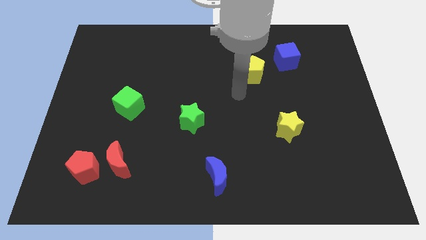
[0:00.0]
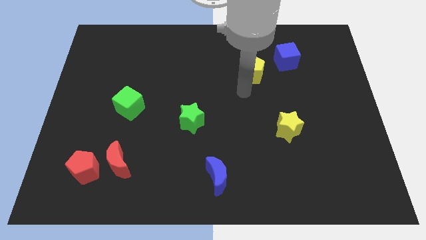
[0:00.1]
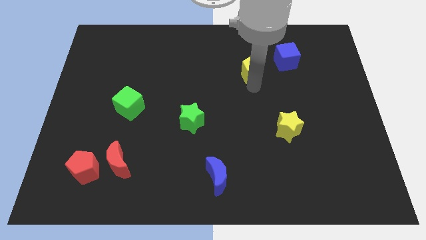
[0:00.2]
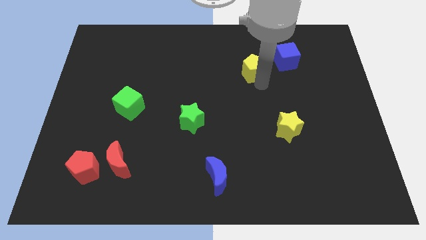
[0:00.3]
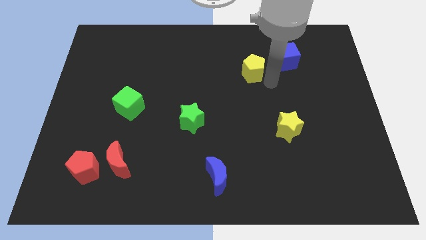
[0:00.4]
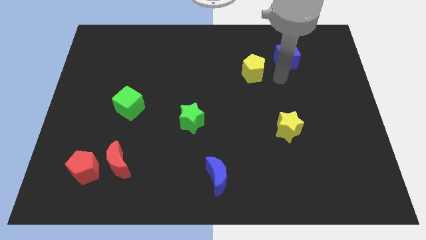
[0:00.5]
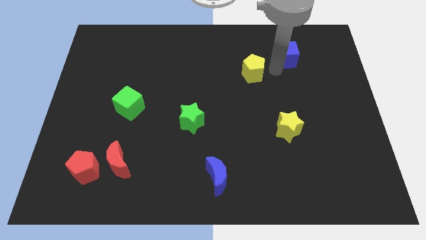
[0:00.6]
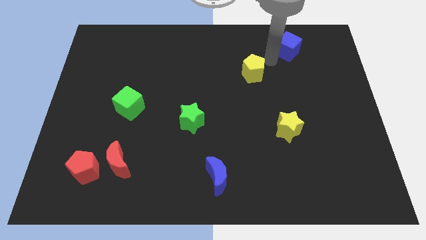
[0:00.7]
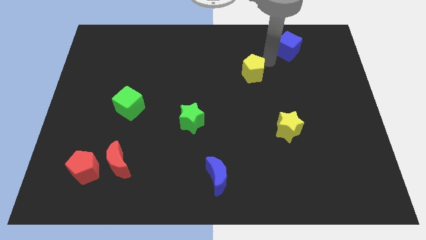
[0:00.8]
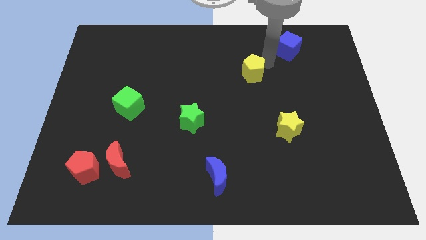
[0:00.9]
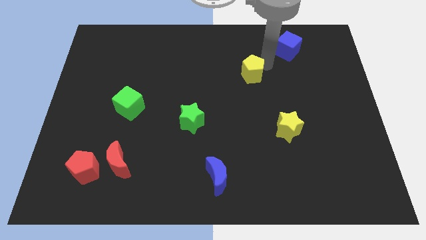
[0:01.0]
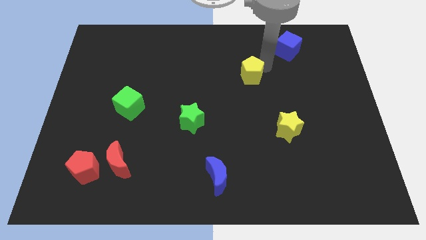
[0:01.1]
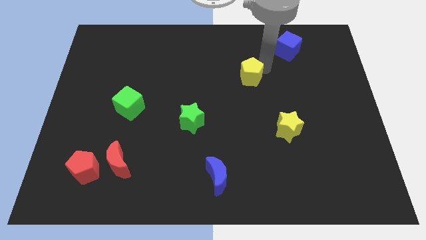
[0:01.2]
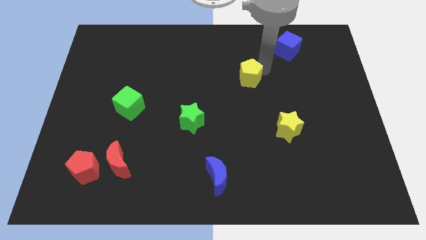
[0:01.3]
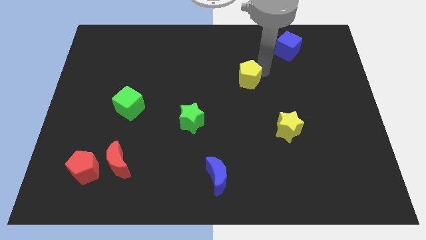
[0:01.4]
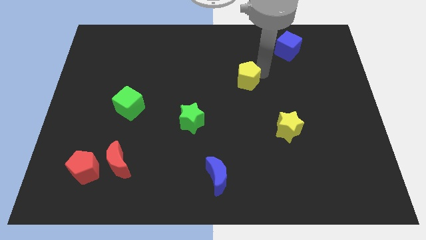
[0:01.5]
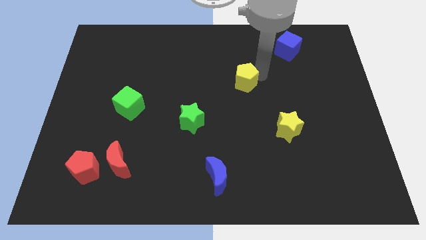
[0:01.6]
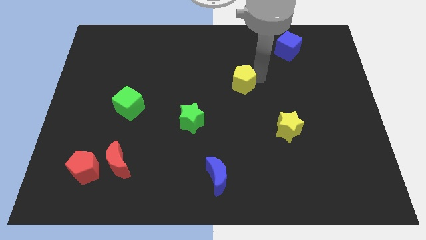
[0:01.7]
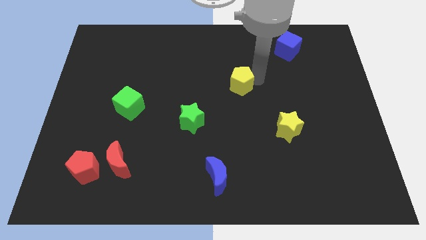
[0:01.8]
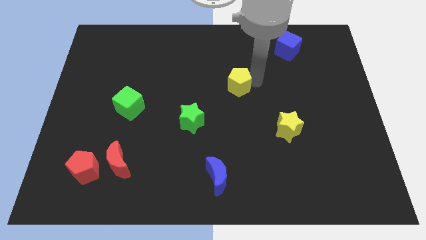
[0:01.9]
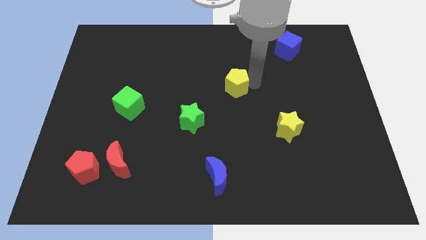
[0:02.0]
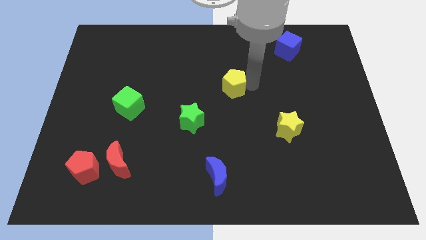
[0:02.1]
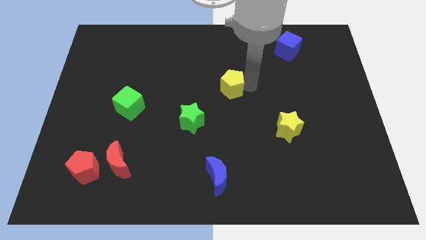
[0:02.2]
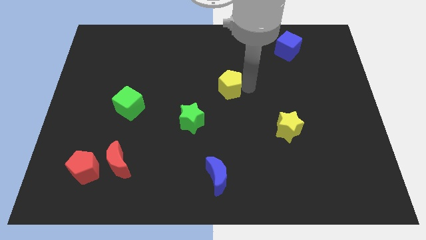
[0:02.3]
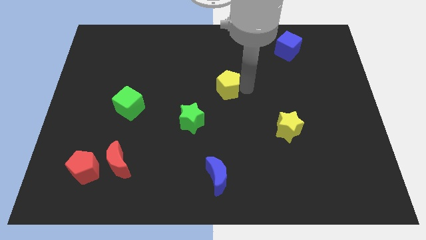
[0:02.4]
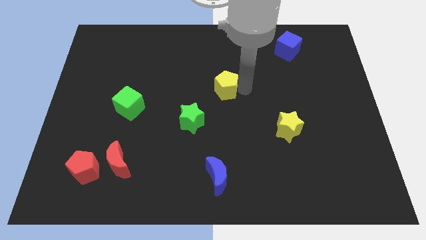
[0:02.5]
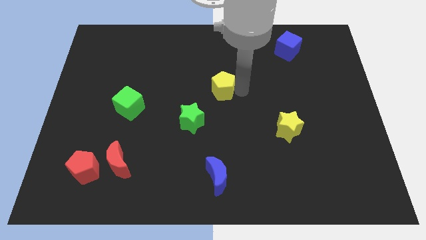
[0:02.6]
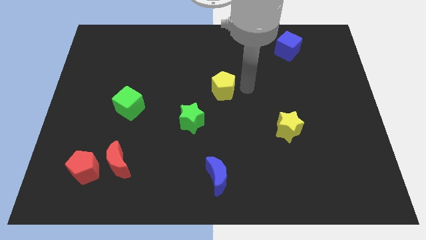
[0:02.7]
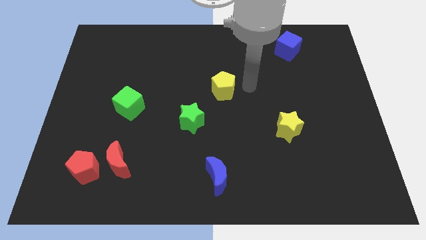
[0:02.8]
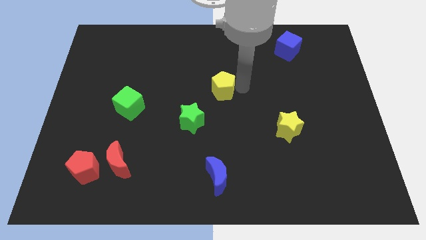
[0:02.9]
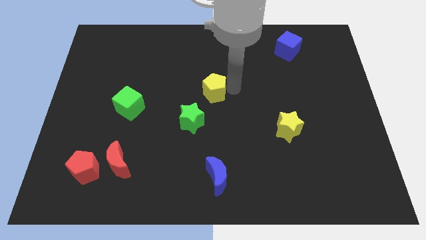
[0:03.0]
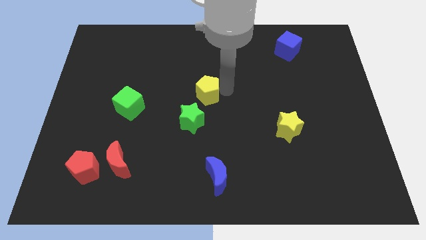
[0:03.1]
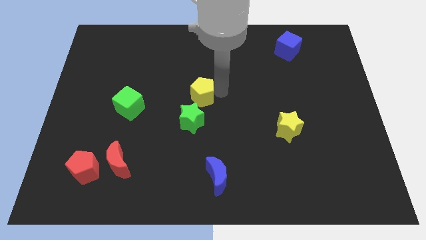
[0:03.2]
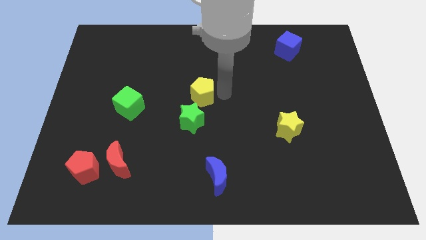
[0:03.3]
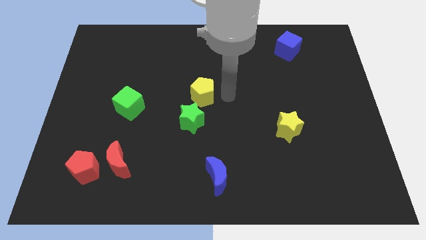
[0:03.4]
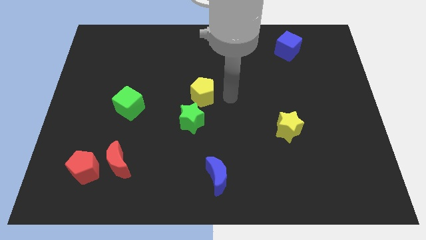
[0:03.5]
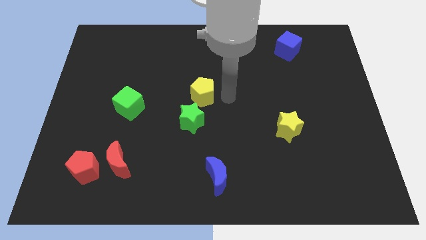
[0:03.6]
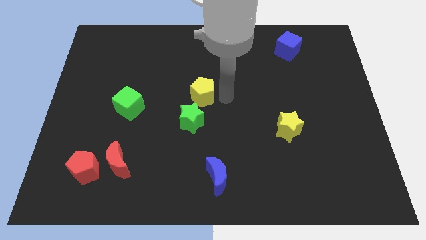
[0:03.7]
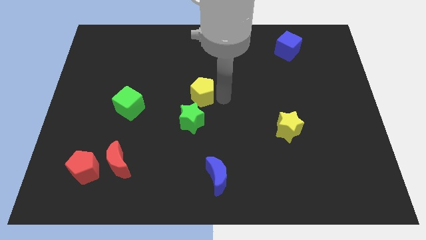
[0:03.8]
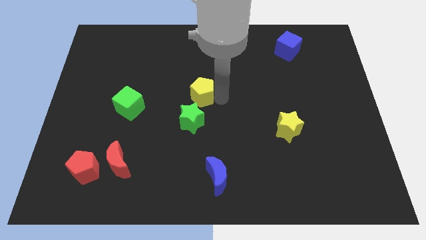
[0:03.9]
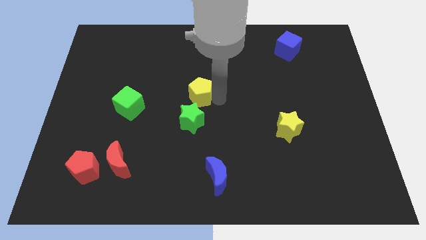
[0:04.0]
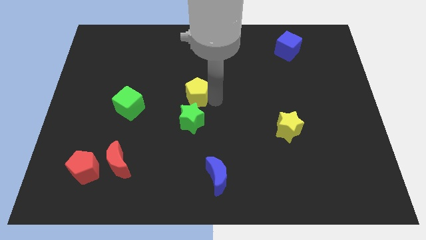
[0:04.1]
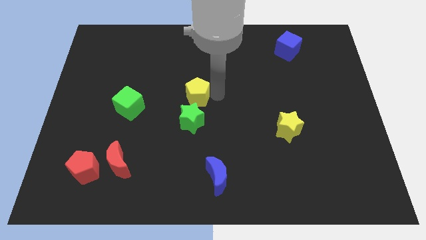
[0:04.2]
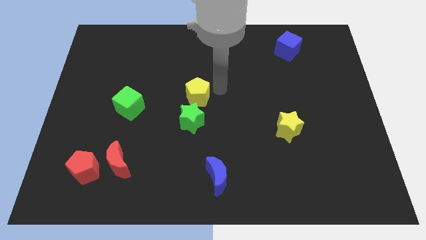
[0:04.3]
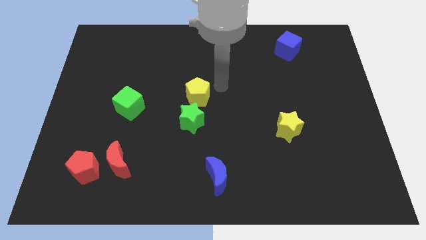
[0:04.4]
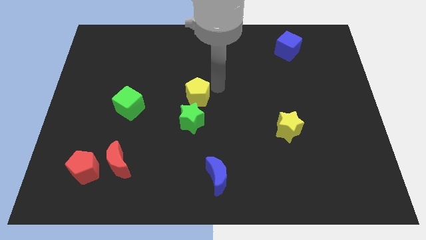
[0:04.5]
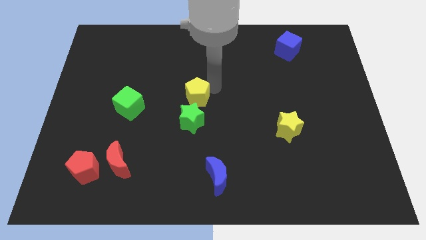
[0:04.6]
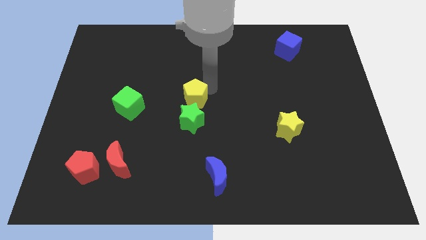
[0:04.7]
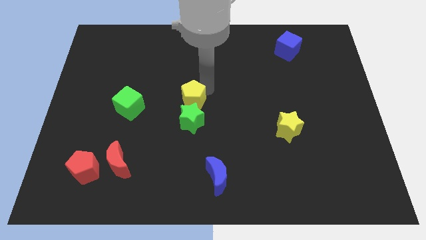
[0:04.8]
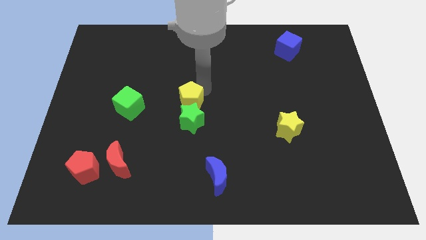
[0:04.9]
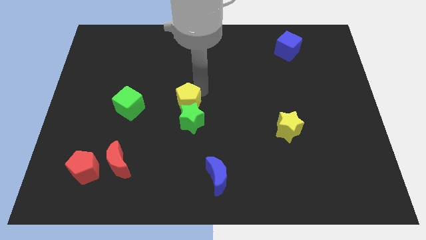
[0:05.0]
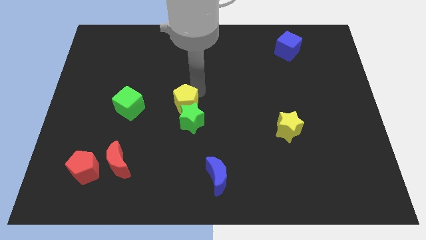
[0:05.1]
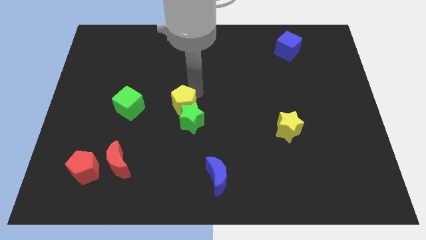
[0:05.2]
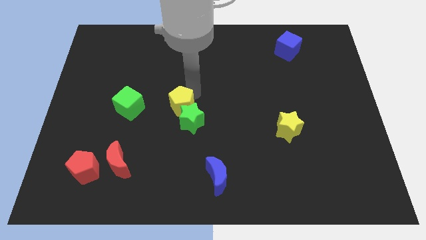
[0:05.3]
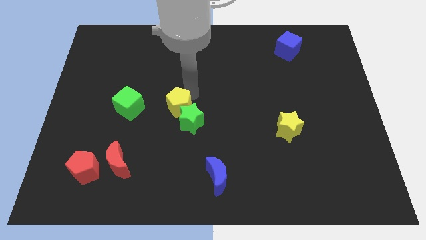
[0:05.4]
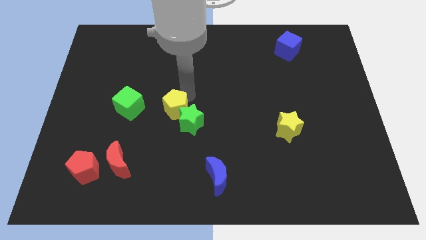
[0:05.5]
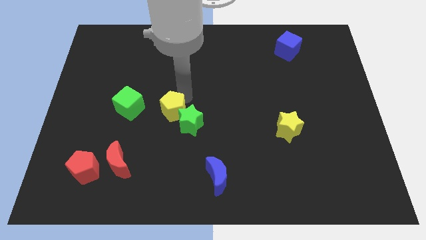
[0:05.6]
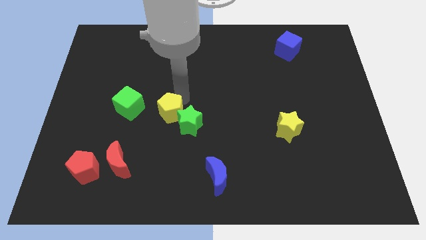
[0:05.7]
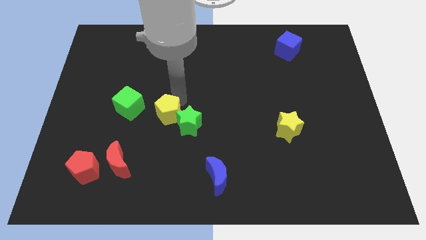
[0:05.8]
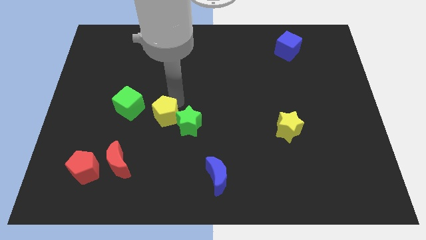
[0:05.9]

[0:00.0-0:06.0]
move the yellow pentagon diagonally down and to the right of the green cube

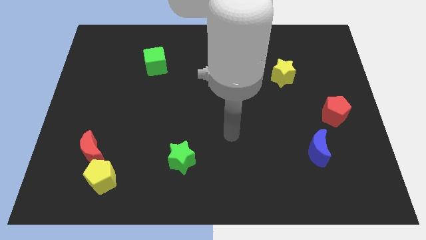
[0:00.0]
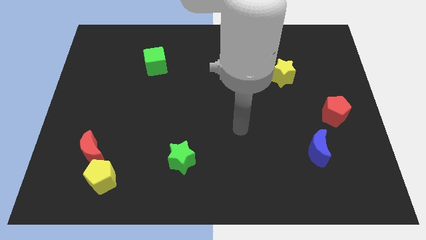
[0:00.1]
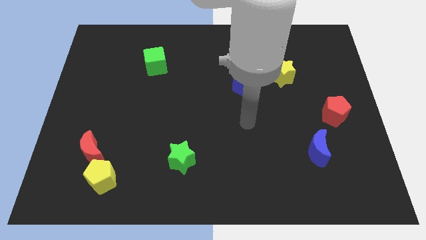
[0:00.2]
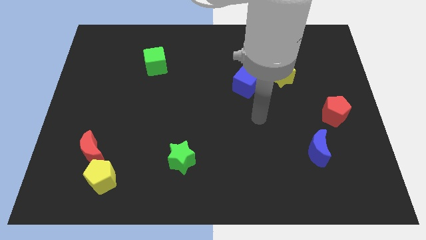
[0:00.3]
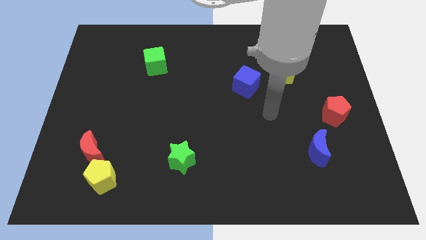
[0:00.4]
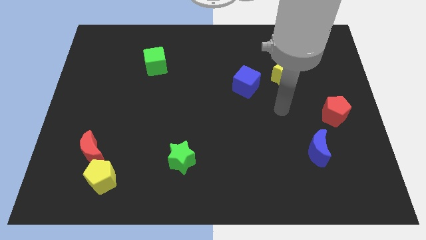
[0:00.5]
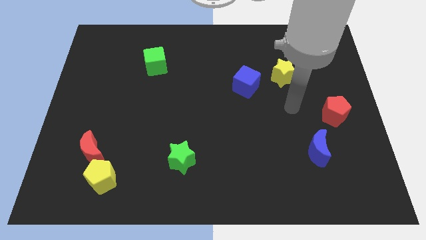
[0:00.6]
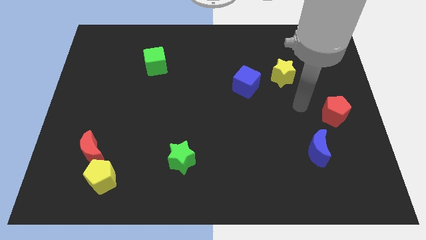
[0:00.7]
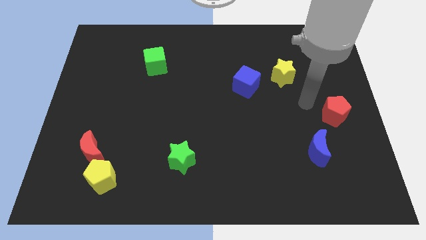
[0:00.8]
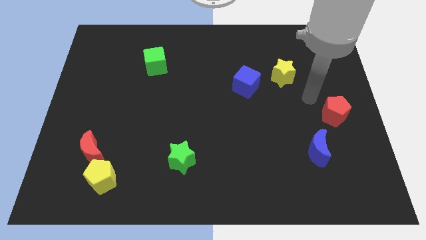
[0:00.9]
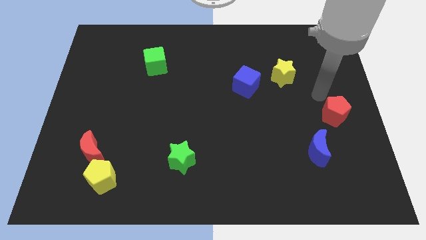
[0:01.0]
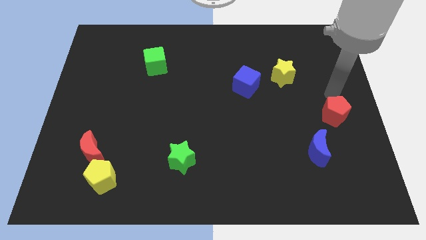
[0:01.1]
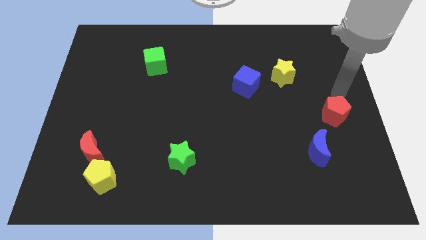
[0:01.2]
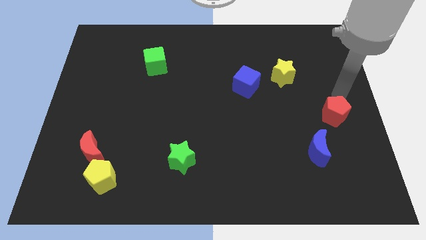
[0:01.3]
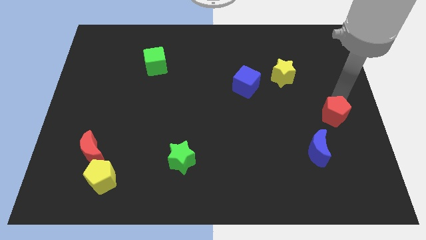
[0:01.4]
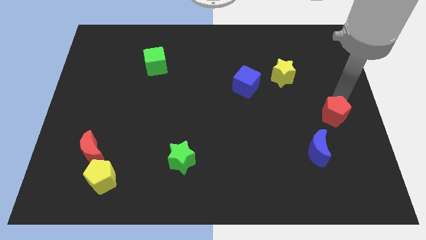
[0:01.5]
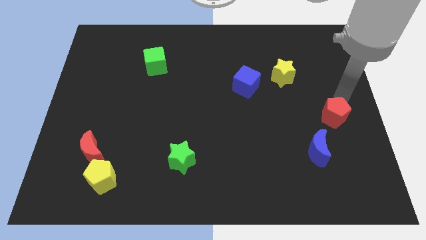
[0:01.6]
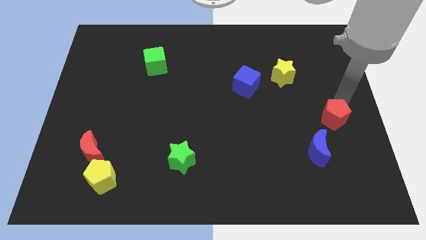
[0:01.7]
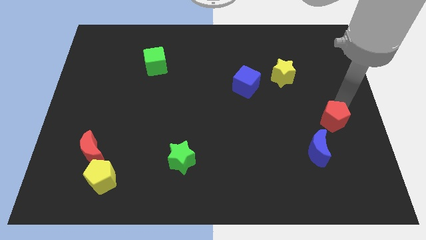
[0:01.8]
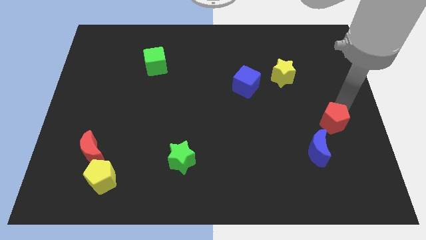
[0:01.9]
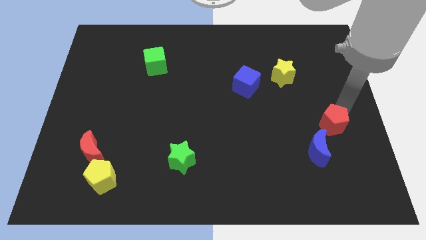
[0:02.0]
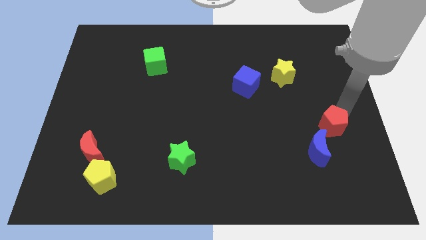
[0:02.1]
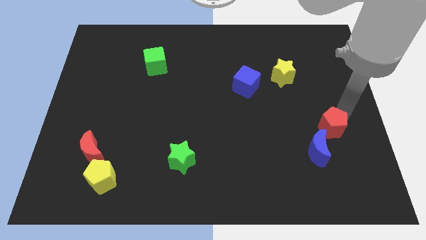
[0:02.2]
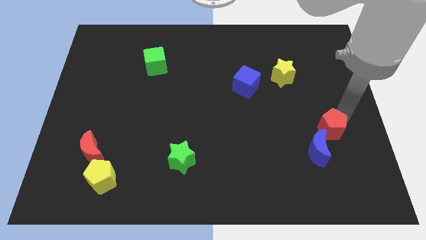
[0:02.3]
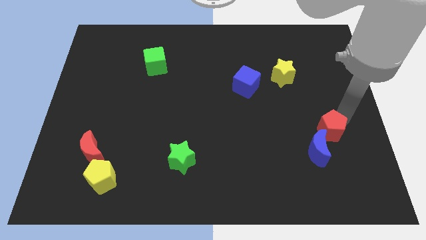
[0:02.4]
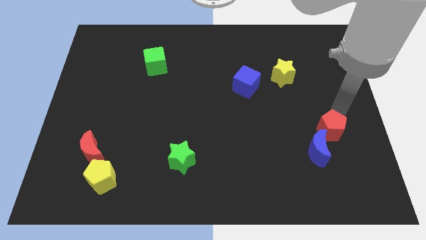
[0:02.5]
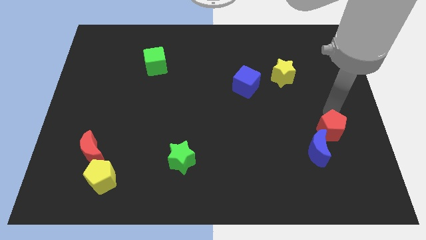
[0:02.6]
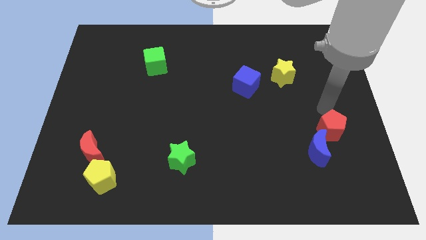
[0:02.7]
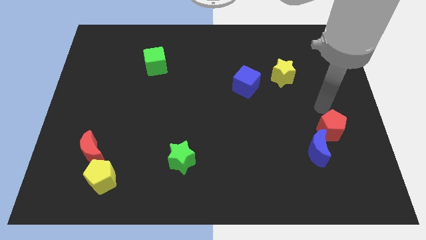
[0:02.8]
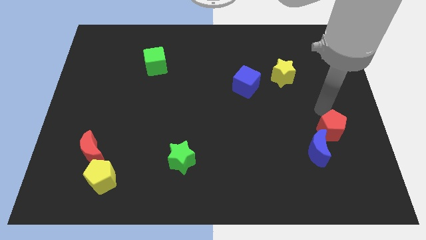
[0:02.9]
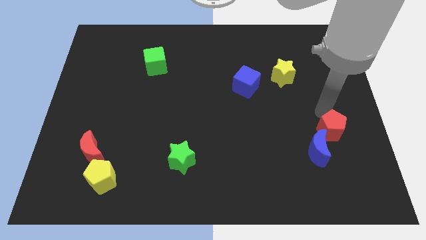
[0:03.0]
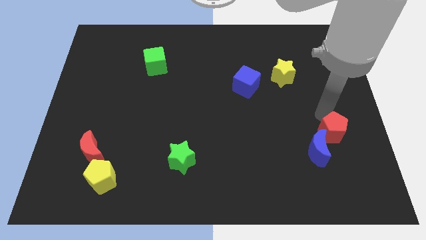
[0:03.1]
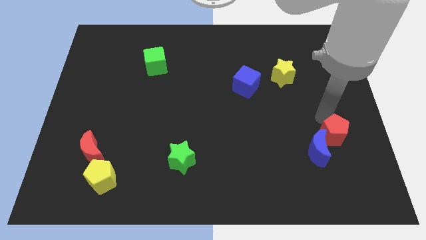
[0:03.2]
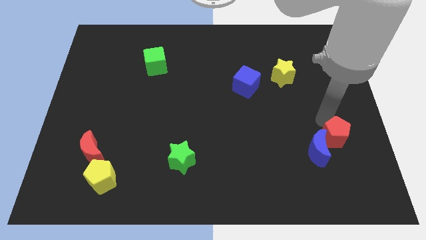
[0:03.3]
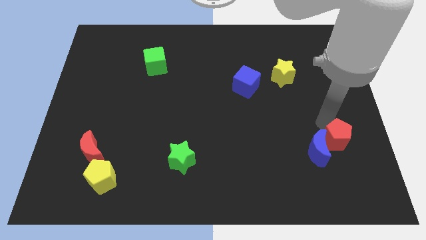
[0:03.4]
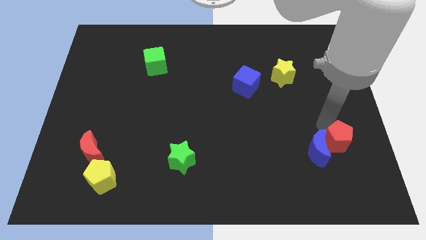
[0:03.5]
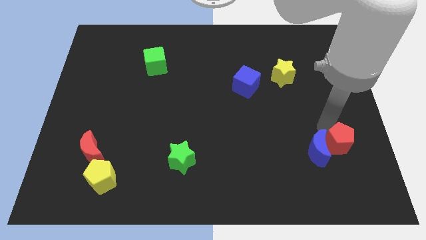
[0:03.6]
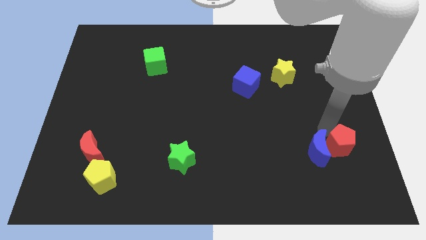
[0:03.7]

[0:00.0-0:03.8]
slide the red pentagon to the bottom right side of the blue moon
